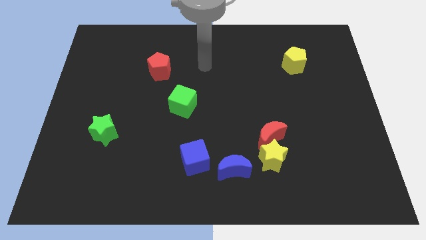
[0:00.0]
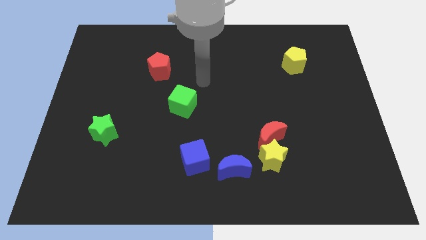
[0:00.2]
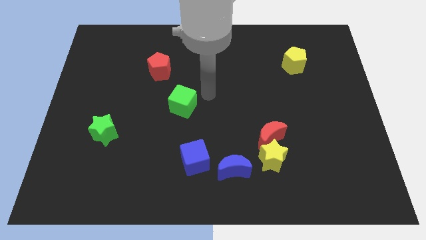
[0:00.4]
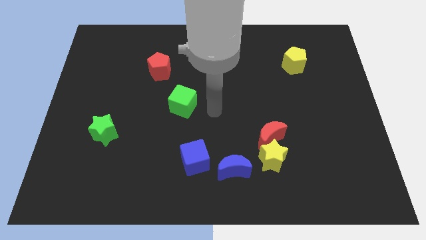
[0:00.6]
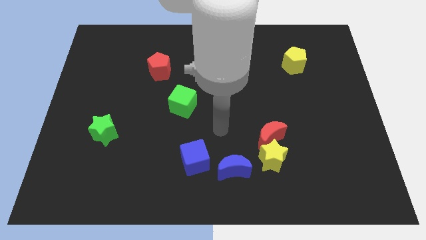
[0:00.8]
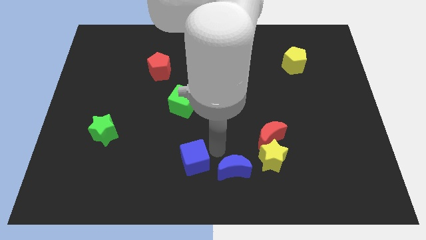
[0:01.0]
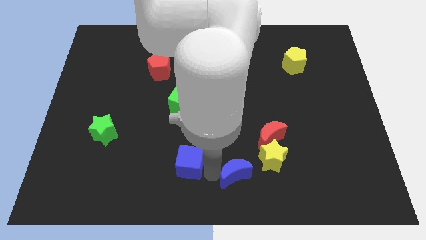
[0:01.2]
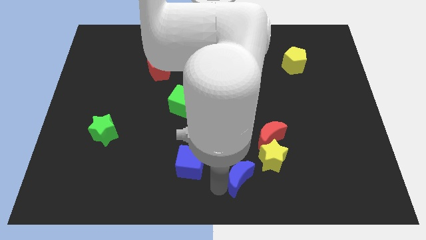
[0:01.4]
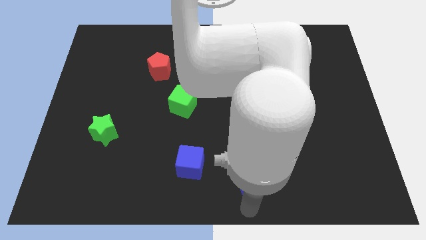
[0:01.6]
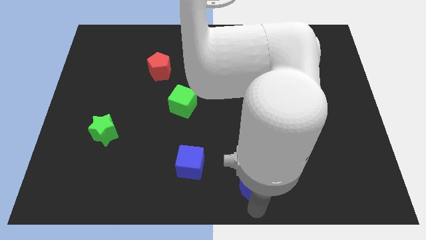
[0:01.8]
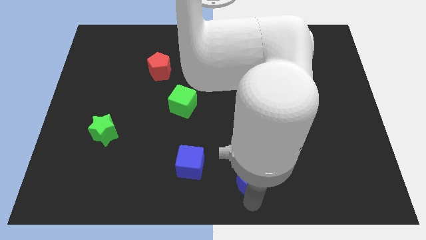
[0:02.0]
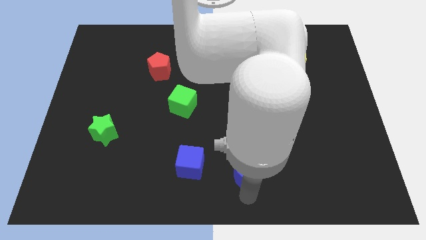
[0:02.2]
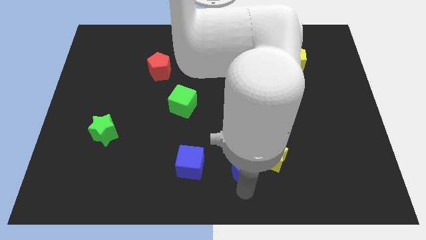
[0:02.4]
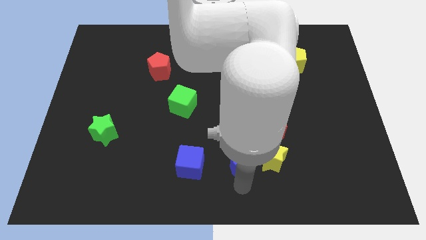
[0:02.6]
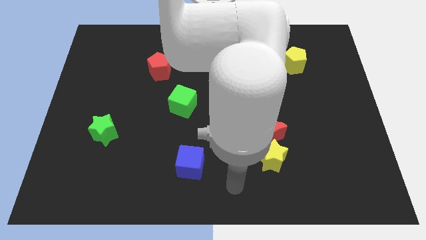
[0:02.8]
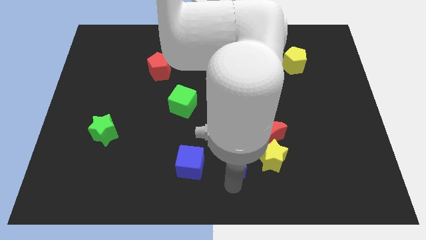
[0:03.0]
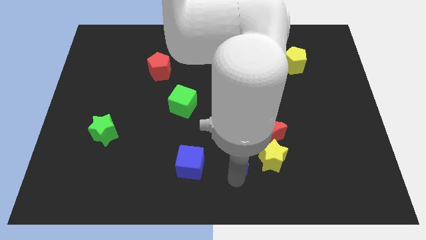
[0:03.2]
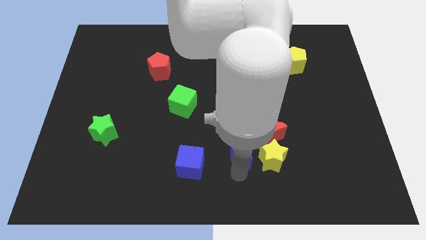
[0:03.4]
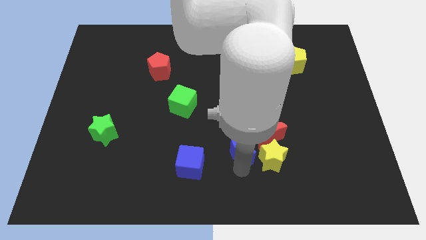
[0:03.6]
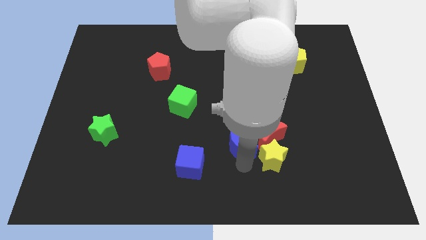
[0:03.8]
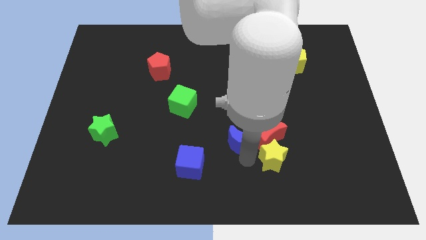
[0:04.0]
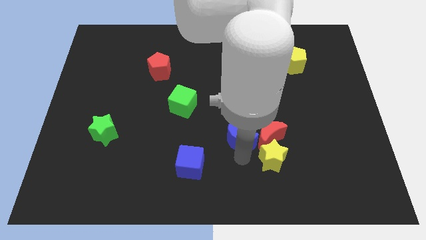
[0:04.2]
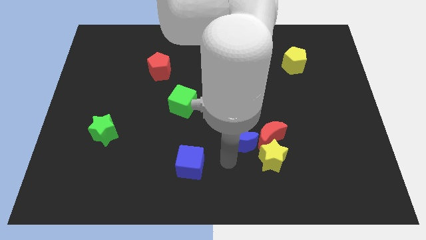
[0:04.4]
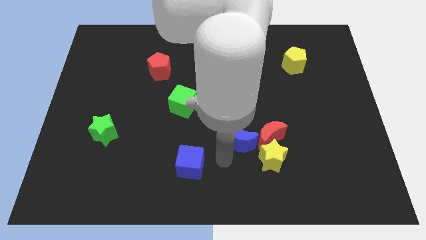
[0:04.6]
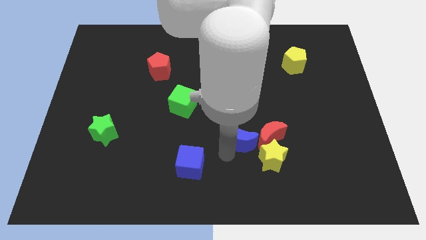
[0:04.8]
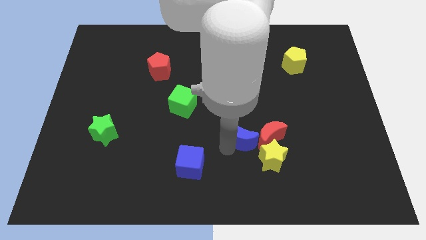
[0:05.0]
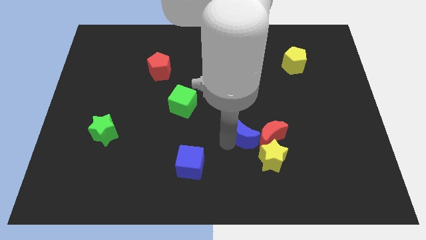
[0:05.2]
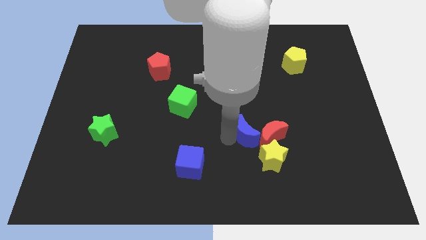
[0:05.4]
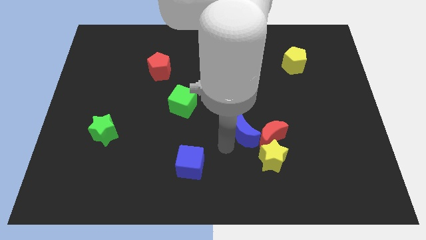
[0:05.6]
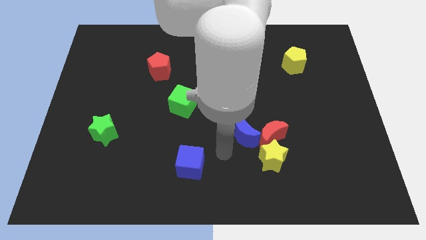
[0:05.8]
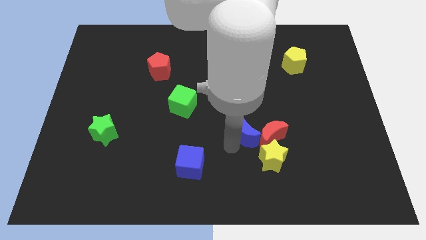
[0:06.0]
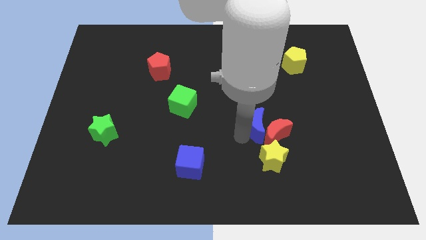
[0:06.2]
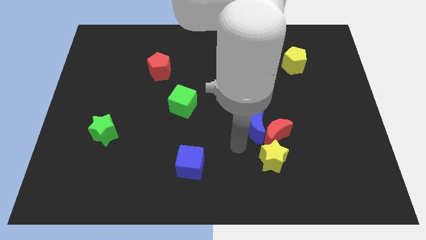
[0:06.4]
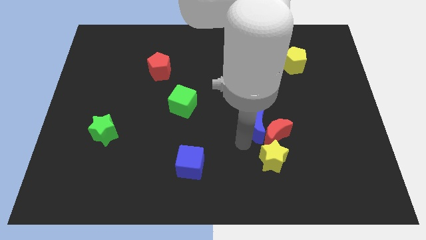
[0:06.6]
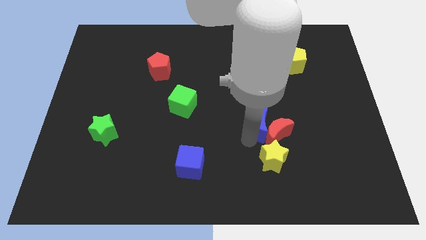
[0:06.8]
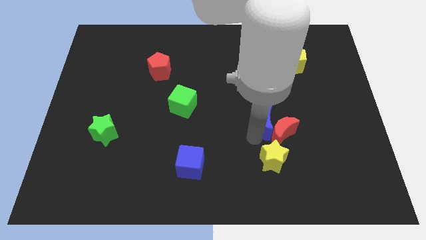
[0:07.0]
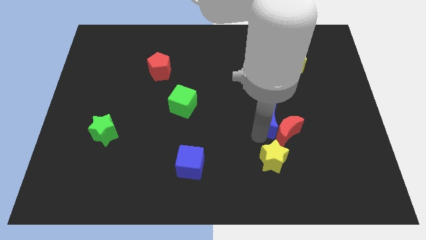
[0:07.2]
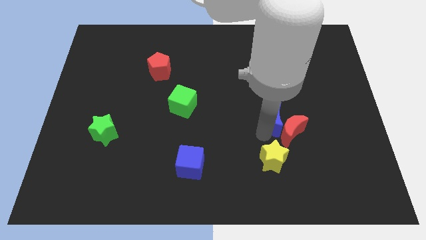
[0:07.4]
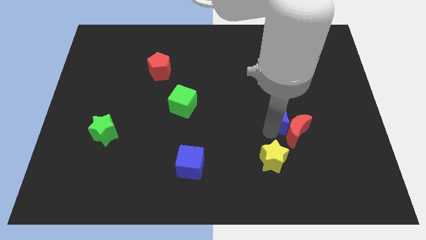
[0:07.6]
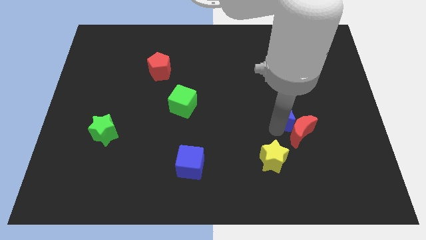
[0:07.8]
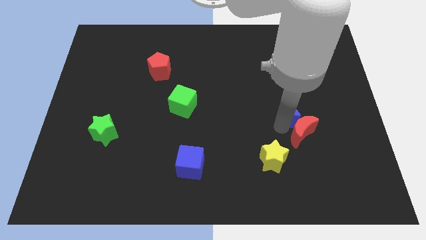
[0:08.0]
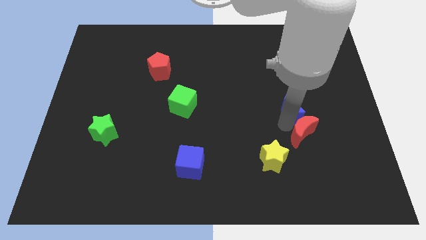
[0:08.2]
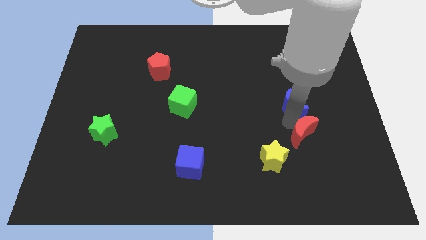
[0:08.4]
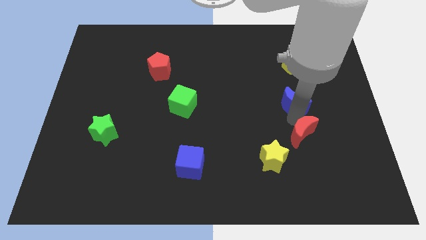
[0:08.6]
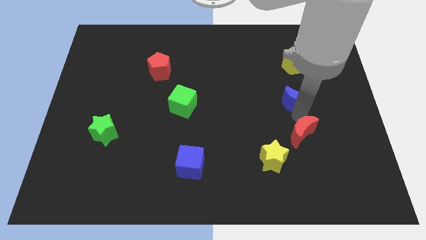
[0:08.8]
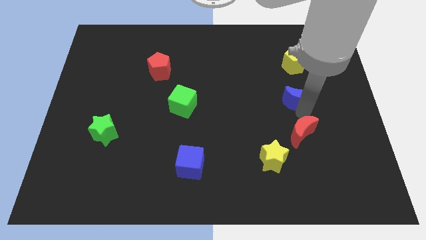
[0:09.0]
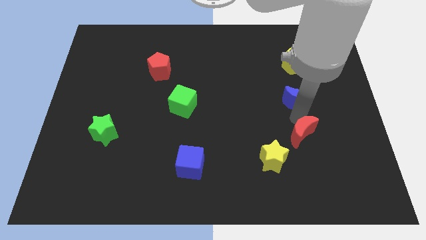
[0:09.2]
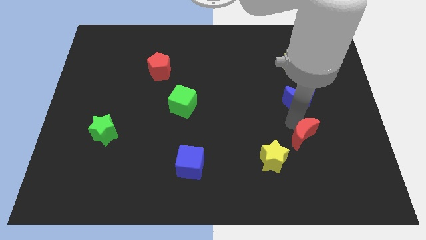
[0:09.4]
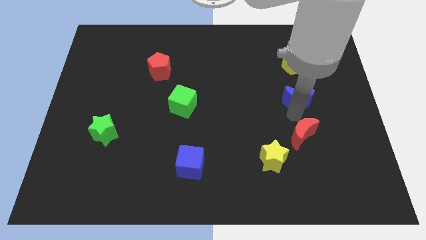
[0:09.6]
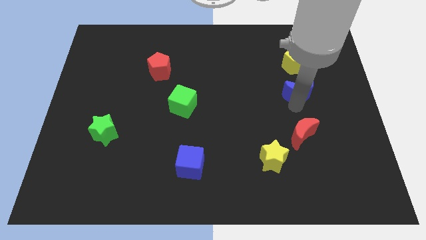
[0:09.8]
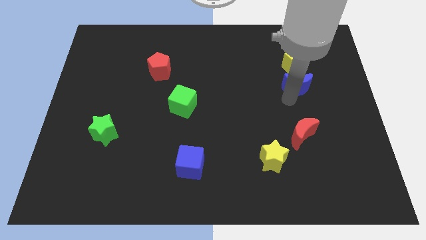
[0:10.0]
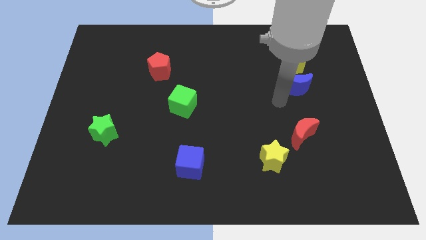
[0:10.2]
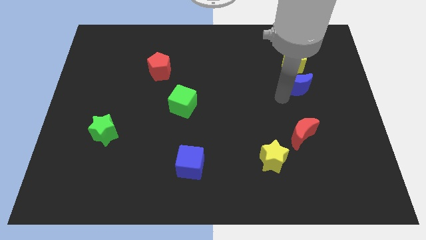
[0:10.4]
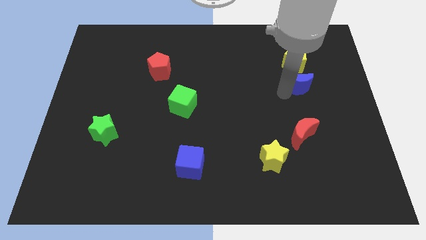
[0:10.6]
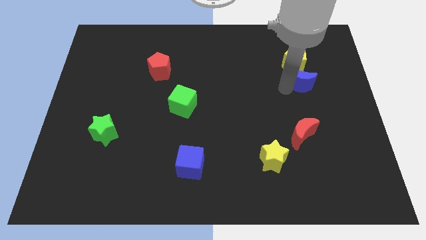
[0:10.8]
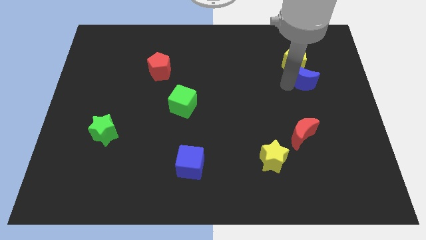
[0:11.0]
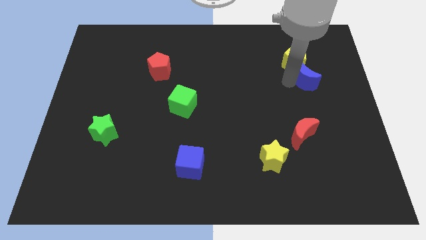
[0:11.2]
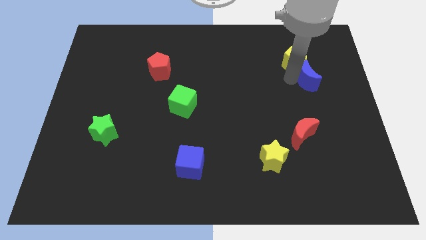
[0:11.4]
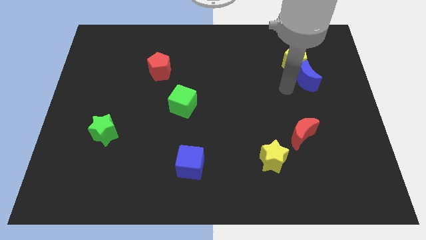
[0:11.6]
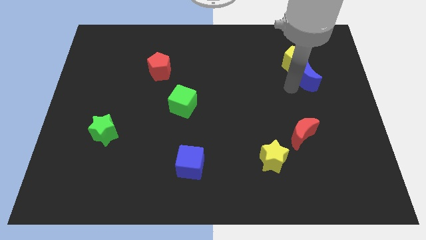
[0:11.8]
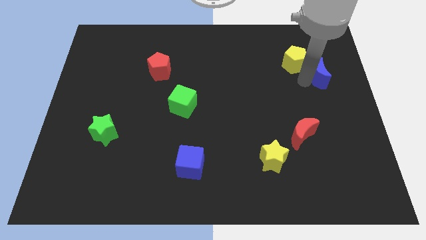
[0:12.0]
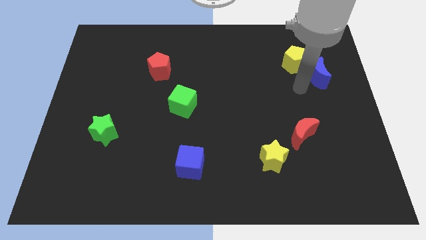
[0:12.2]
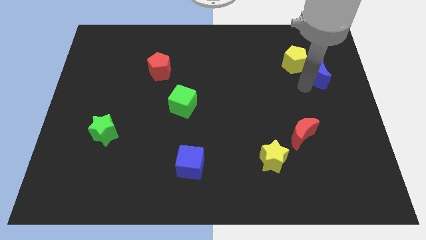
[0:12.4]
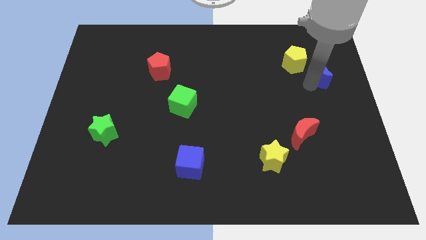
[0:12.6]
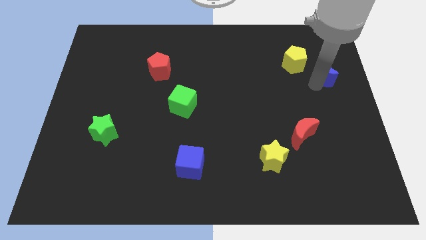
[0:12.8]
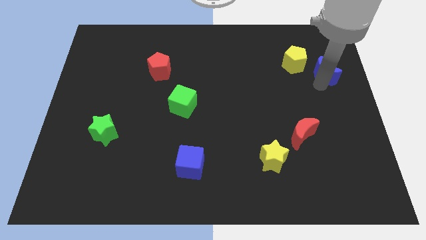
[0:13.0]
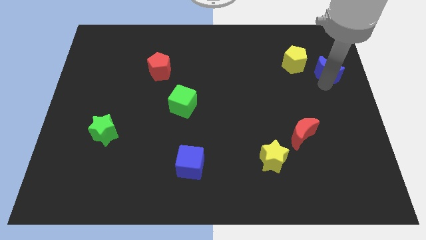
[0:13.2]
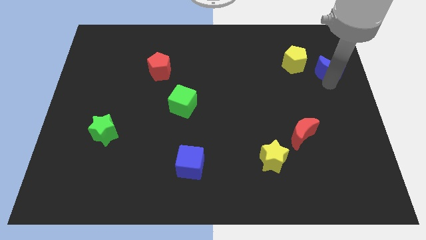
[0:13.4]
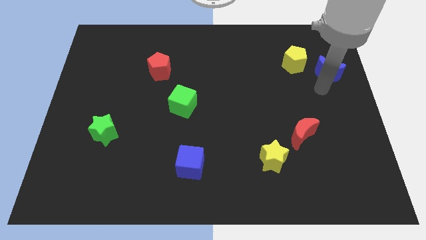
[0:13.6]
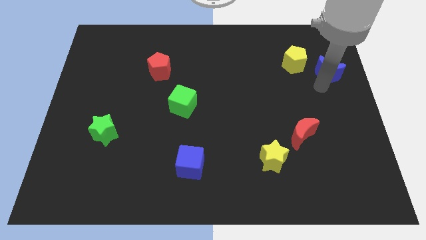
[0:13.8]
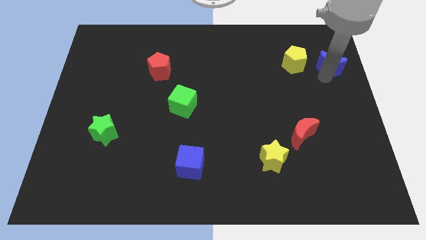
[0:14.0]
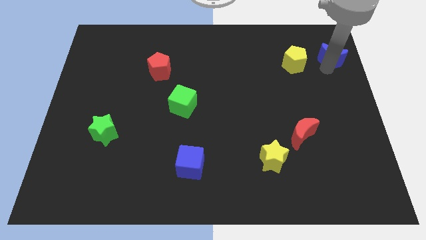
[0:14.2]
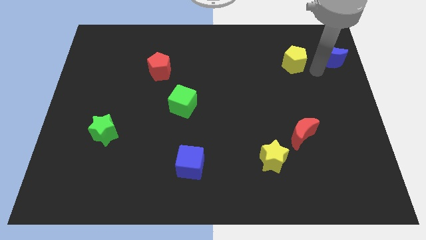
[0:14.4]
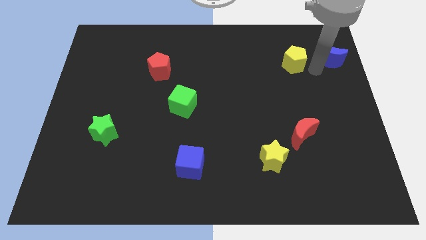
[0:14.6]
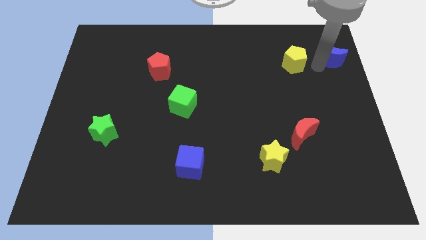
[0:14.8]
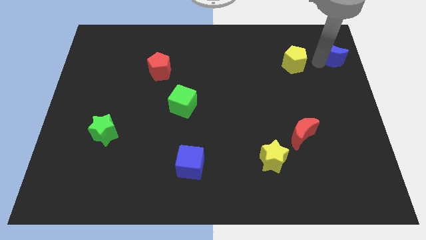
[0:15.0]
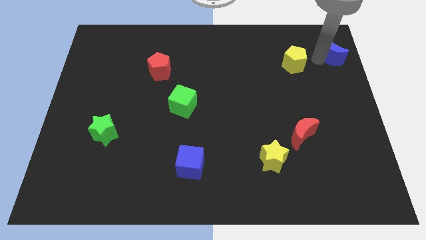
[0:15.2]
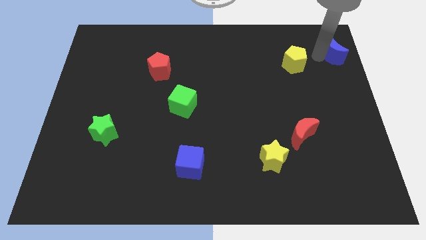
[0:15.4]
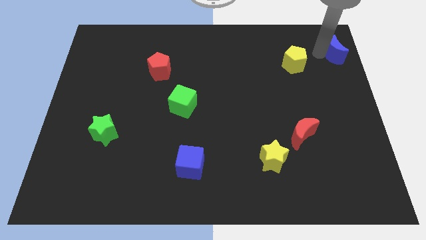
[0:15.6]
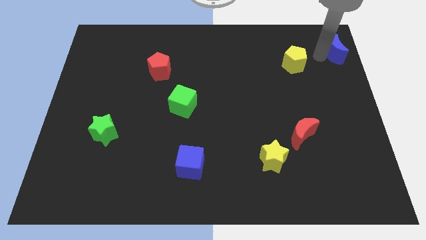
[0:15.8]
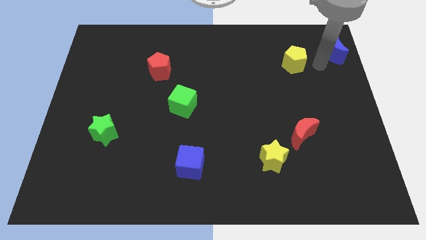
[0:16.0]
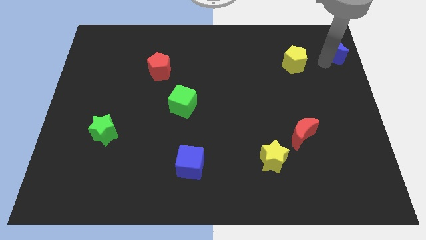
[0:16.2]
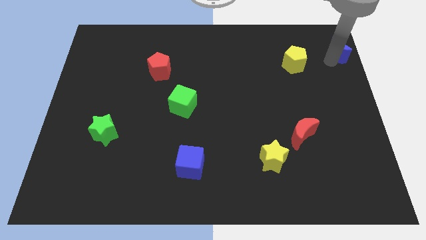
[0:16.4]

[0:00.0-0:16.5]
slide the blue moon to the upper right corner
